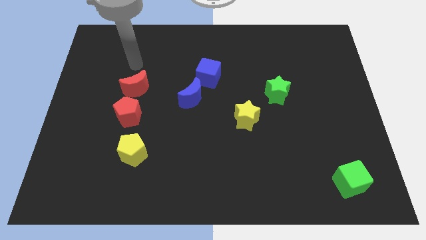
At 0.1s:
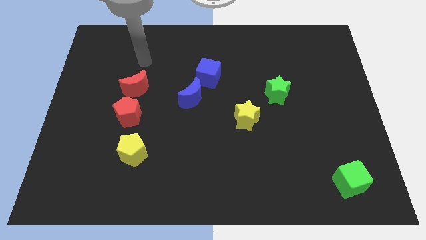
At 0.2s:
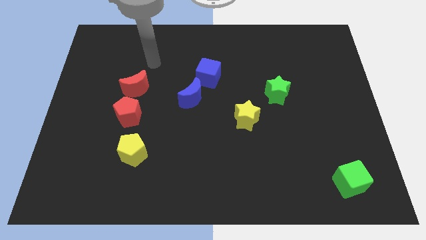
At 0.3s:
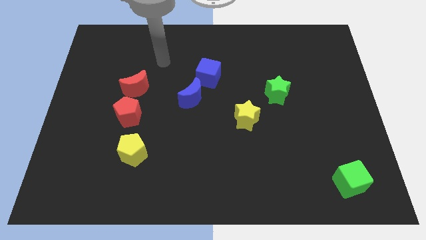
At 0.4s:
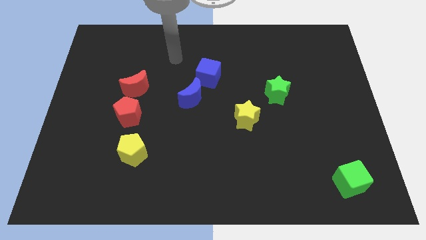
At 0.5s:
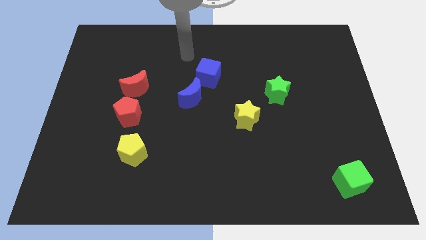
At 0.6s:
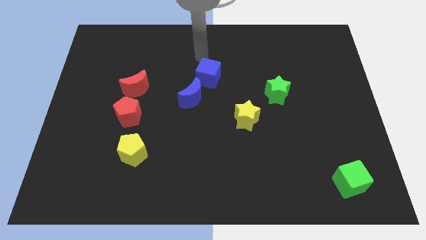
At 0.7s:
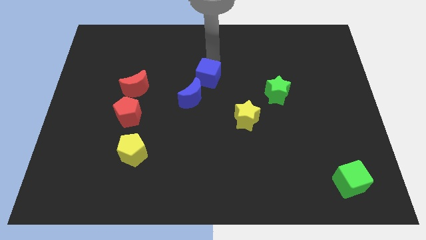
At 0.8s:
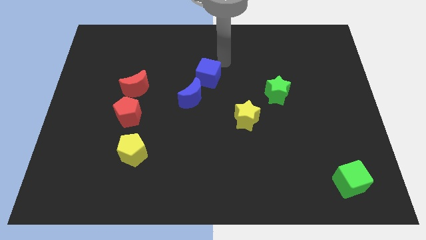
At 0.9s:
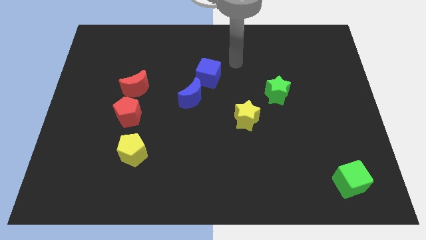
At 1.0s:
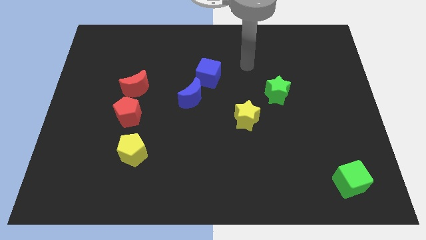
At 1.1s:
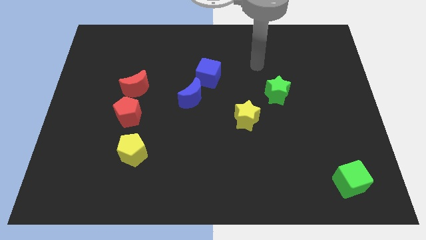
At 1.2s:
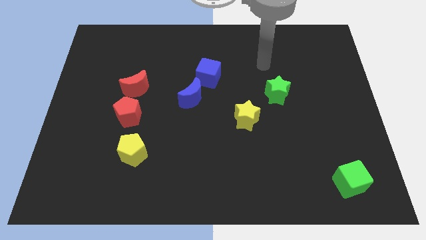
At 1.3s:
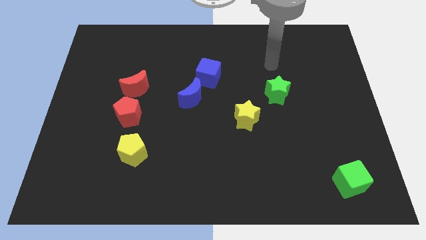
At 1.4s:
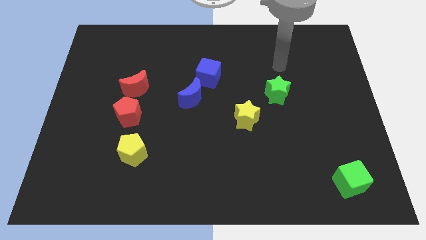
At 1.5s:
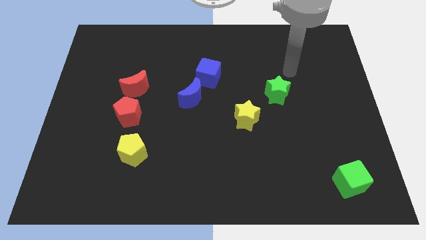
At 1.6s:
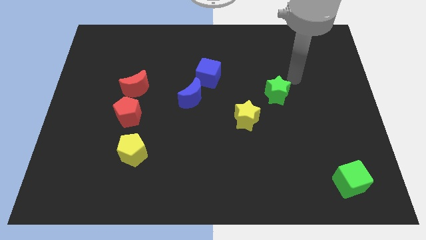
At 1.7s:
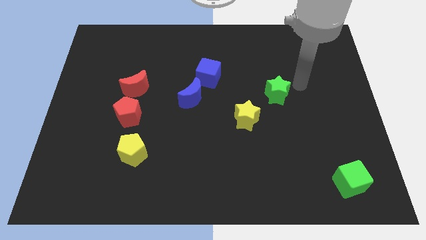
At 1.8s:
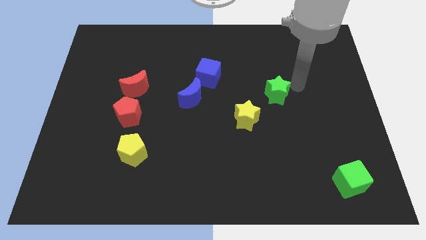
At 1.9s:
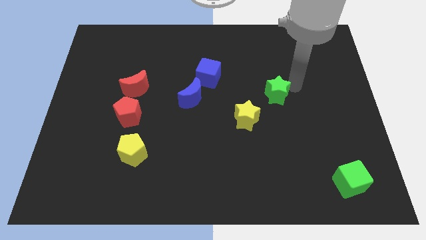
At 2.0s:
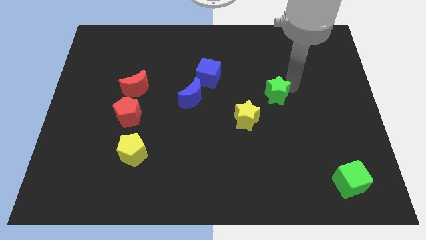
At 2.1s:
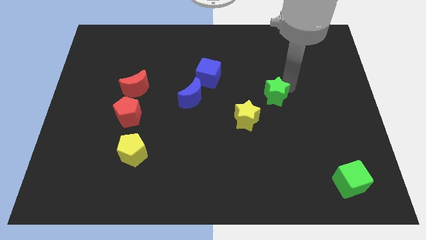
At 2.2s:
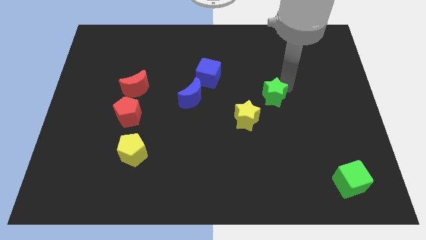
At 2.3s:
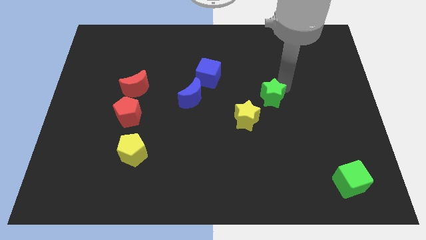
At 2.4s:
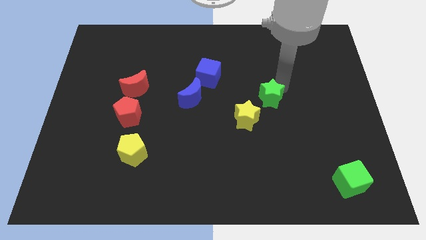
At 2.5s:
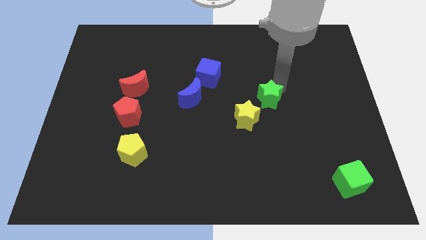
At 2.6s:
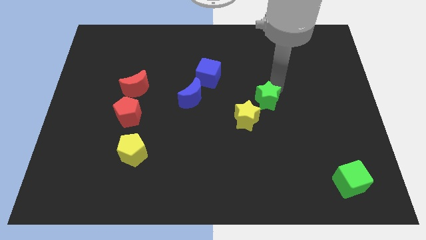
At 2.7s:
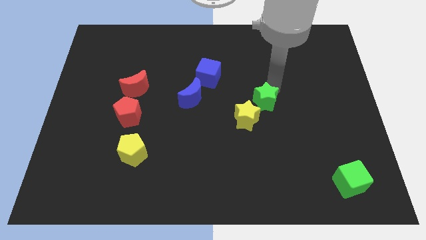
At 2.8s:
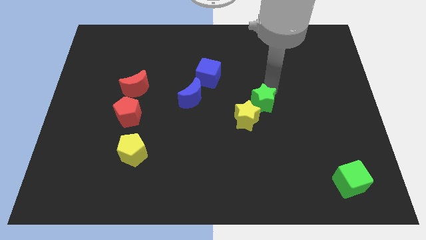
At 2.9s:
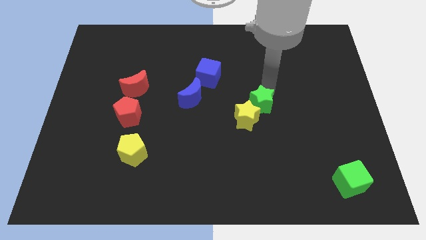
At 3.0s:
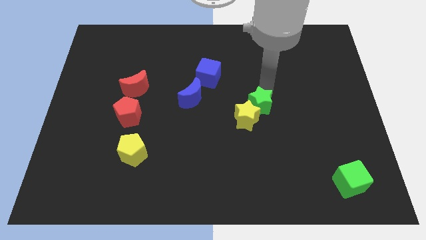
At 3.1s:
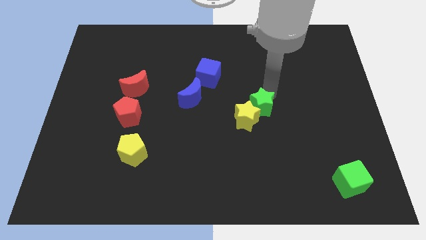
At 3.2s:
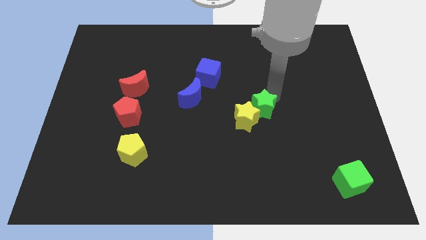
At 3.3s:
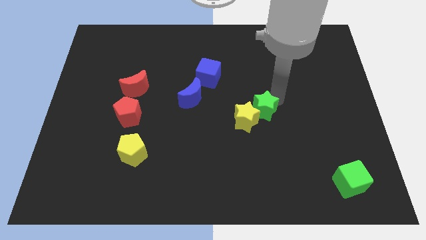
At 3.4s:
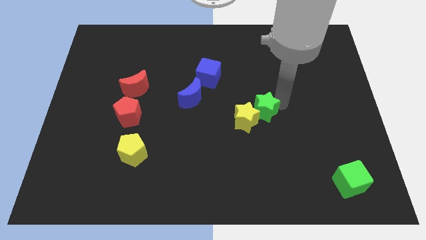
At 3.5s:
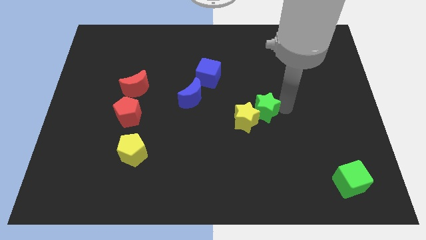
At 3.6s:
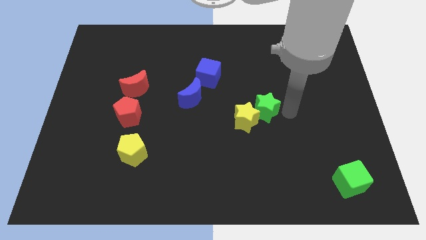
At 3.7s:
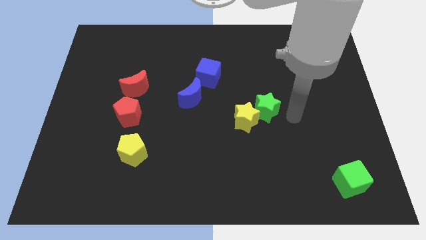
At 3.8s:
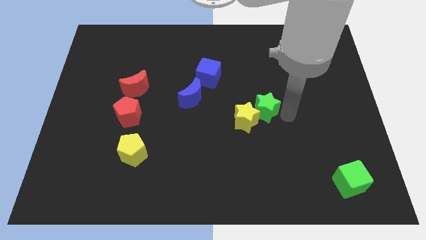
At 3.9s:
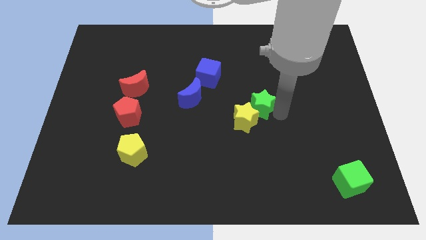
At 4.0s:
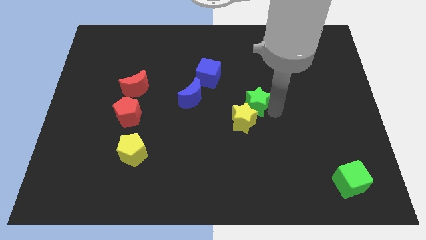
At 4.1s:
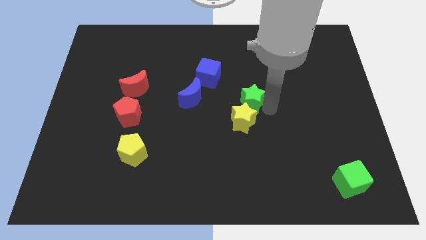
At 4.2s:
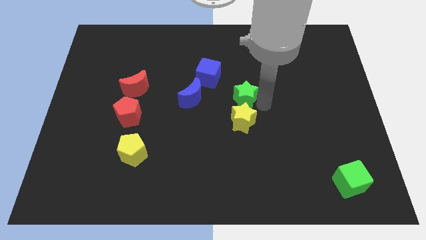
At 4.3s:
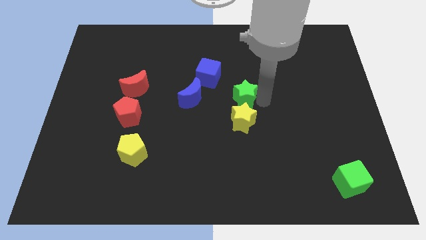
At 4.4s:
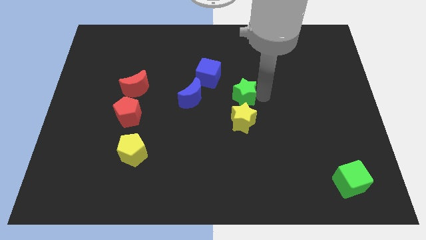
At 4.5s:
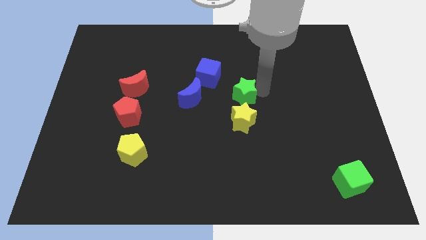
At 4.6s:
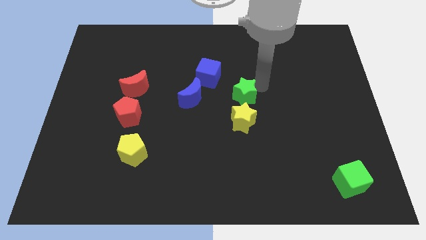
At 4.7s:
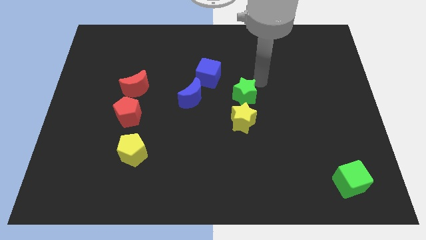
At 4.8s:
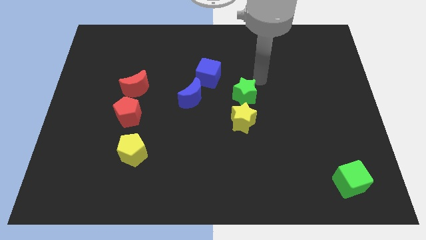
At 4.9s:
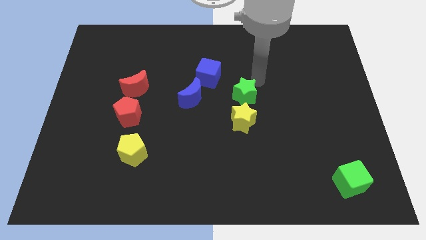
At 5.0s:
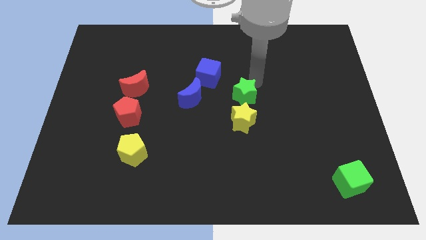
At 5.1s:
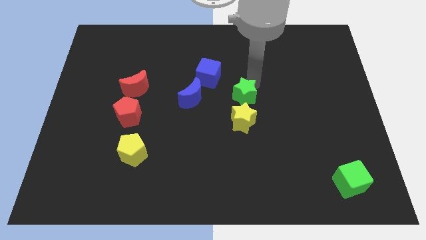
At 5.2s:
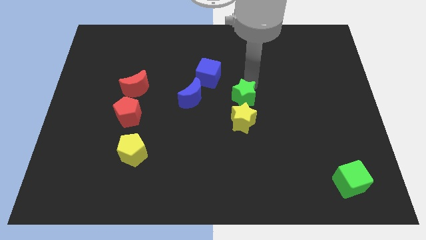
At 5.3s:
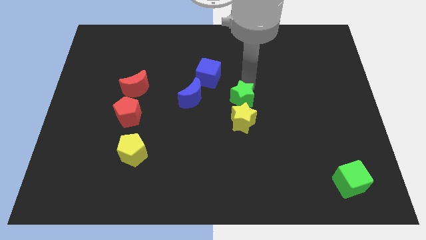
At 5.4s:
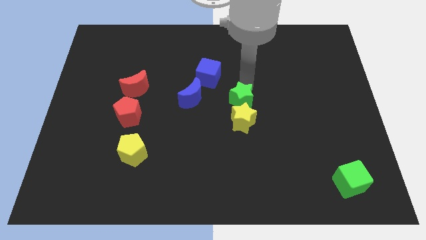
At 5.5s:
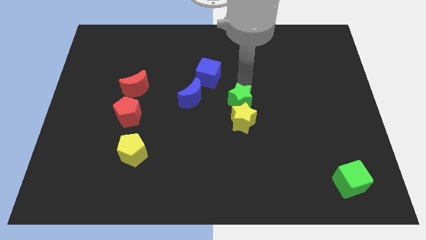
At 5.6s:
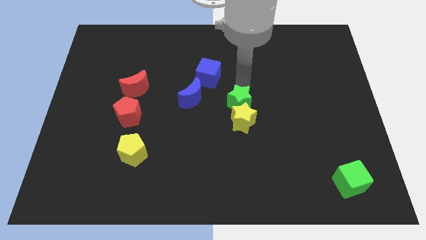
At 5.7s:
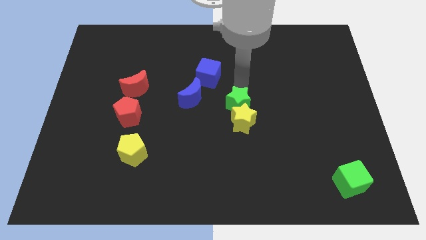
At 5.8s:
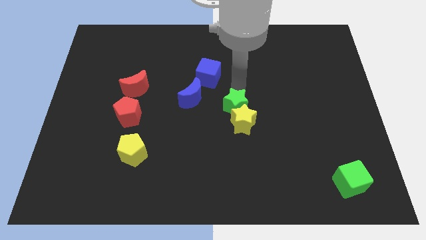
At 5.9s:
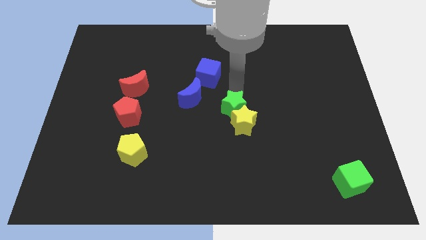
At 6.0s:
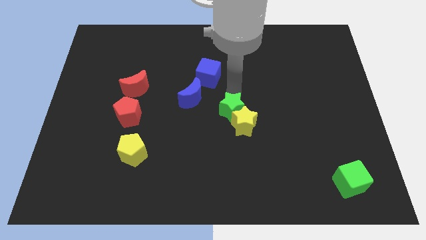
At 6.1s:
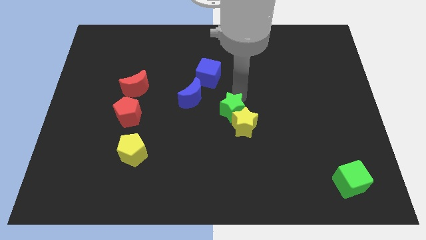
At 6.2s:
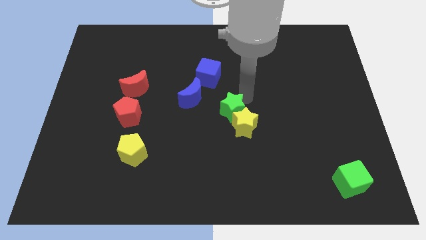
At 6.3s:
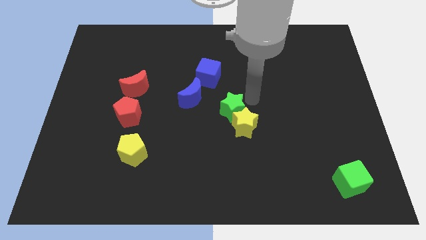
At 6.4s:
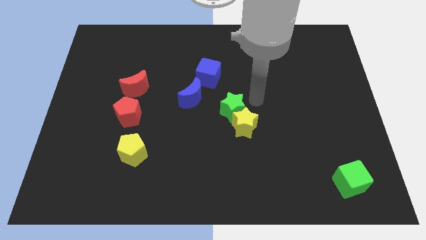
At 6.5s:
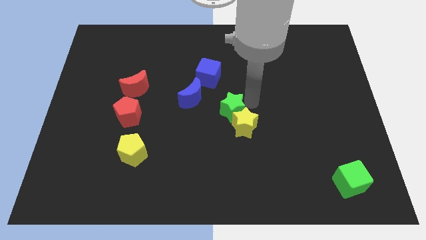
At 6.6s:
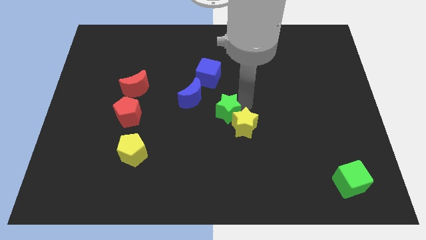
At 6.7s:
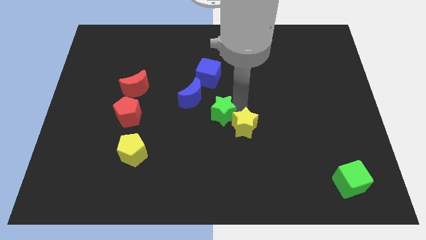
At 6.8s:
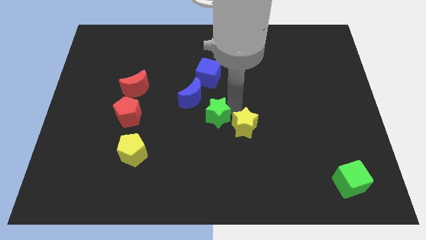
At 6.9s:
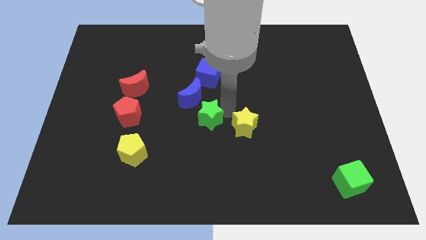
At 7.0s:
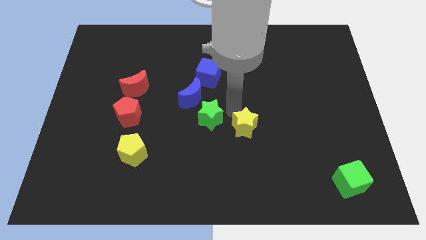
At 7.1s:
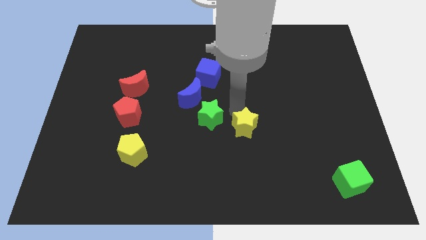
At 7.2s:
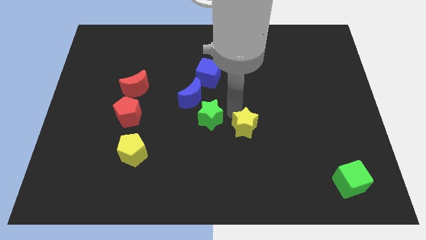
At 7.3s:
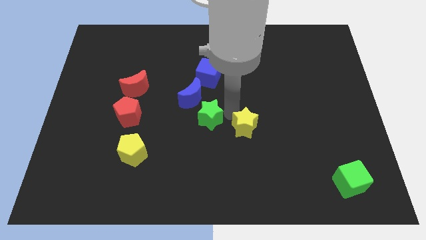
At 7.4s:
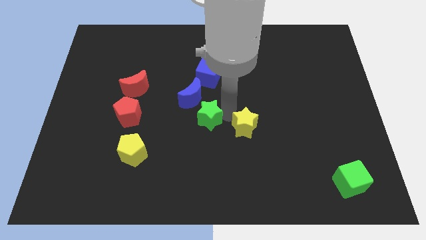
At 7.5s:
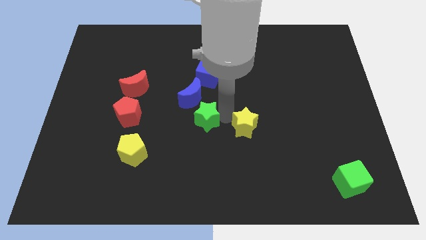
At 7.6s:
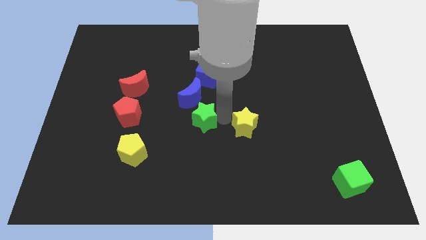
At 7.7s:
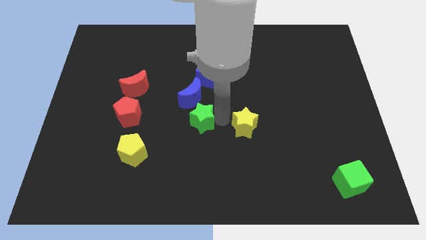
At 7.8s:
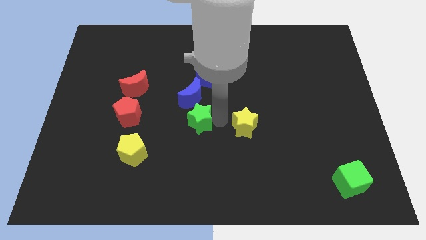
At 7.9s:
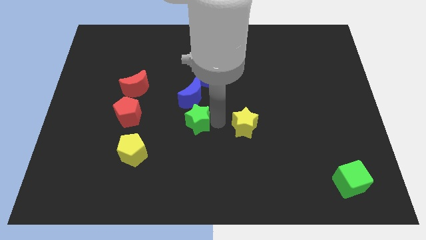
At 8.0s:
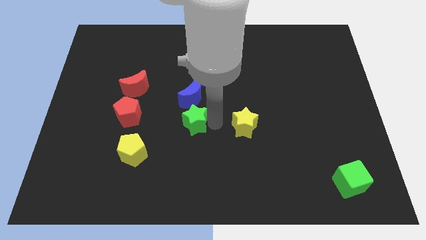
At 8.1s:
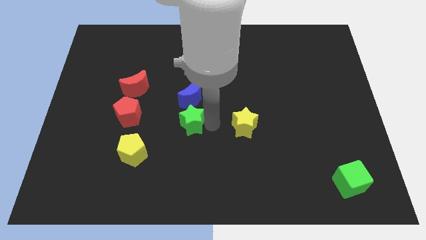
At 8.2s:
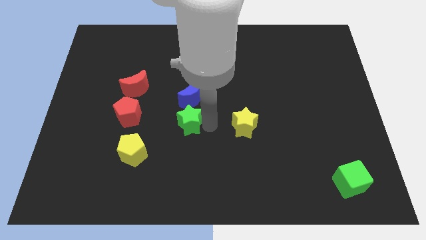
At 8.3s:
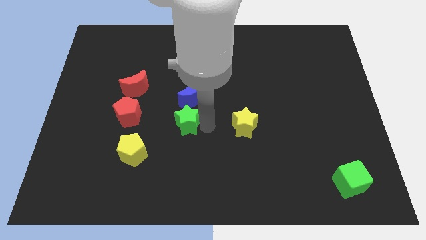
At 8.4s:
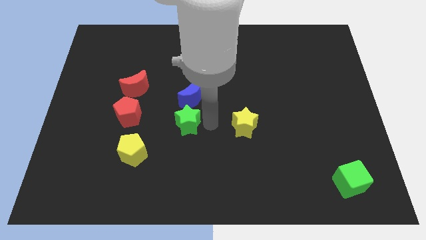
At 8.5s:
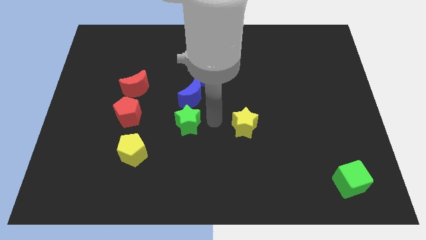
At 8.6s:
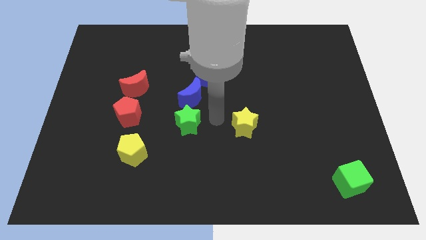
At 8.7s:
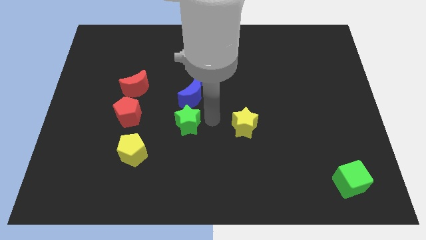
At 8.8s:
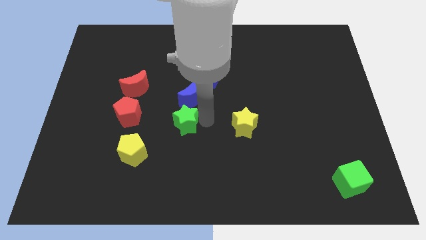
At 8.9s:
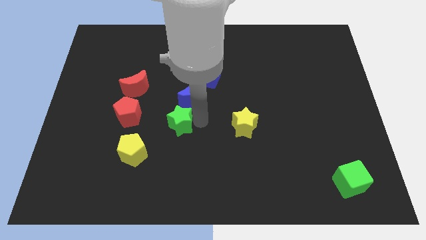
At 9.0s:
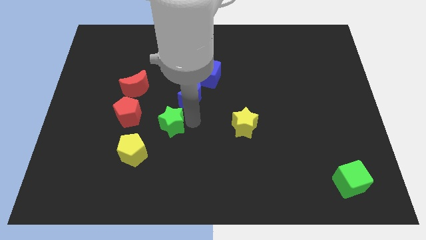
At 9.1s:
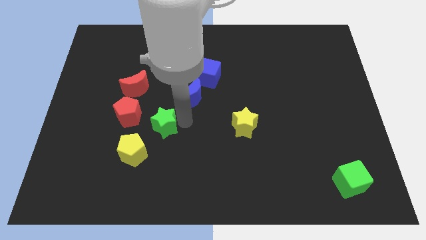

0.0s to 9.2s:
move the green star diagonally down and to the right of the red pentagon
